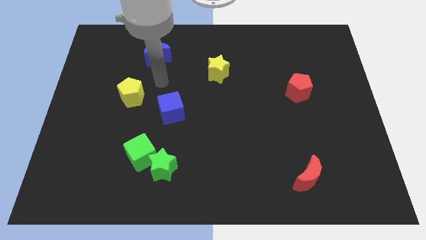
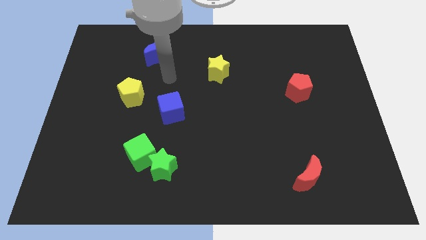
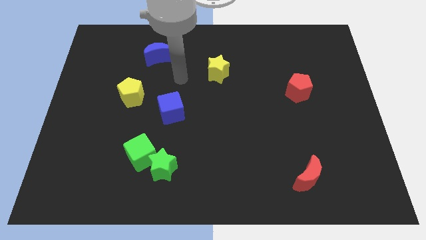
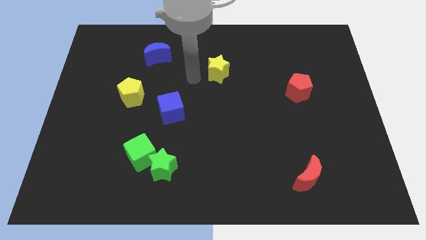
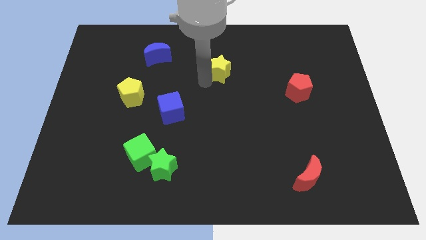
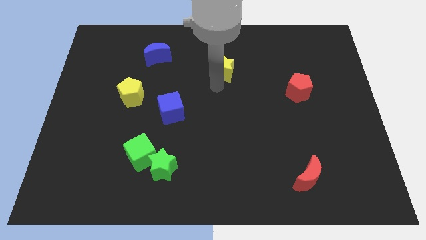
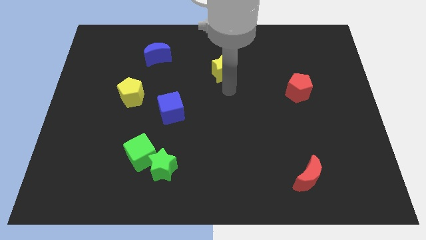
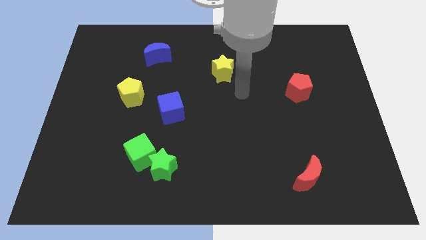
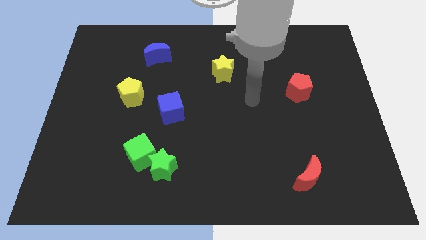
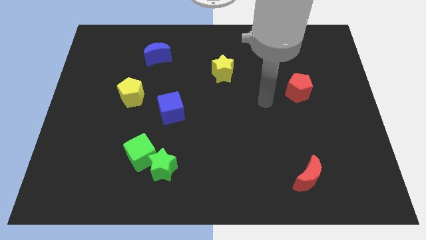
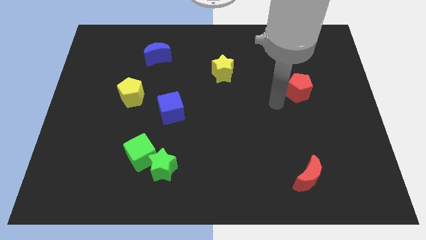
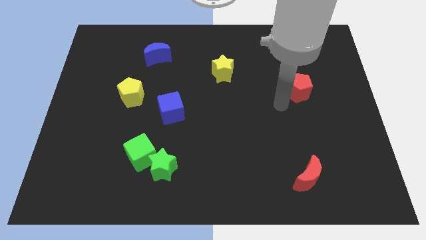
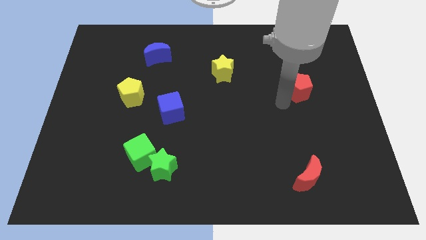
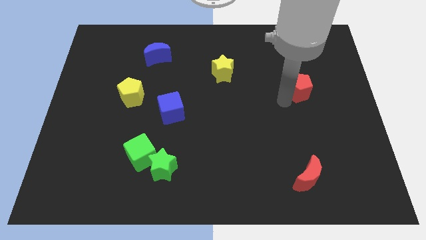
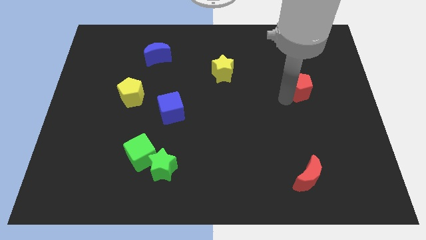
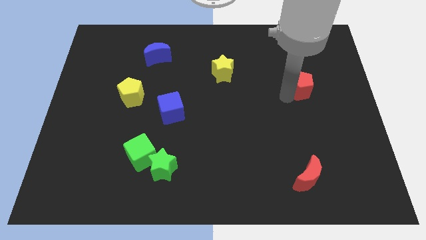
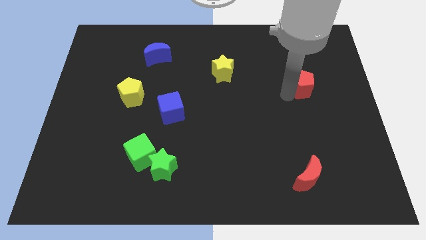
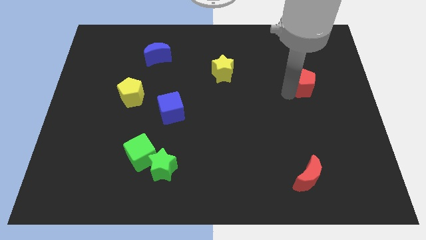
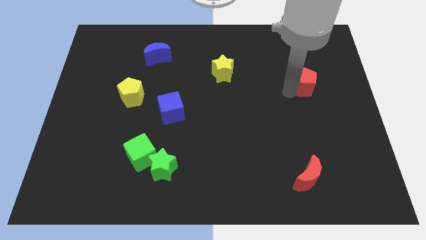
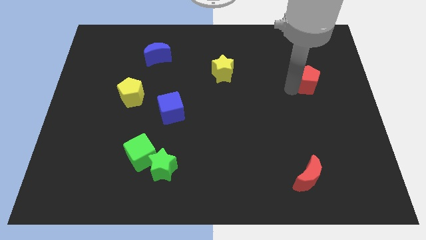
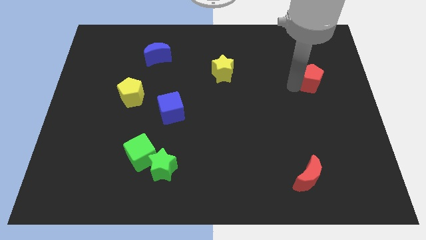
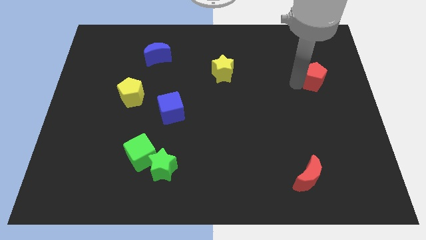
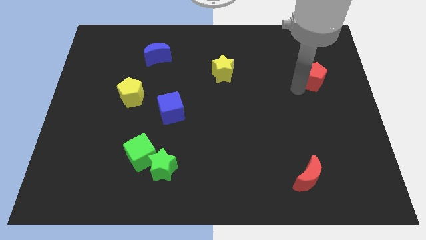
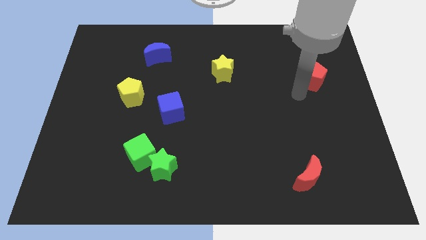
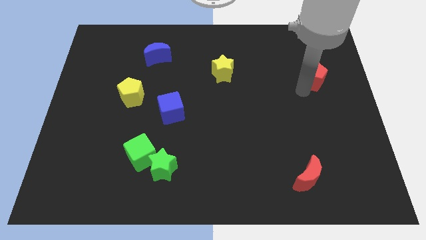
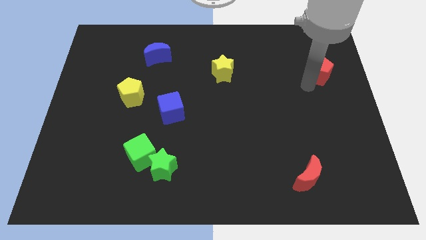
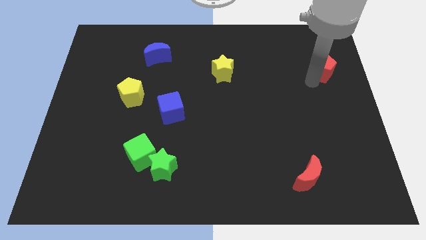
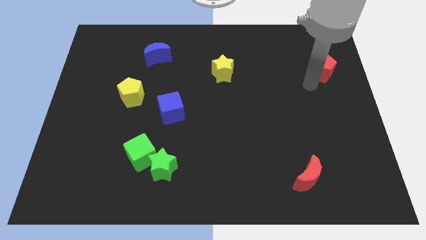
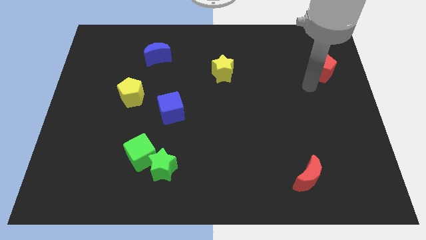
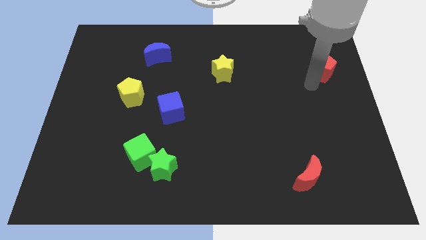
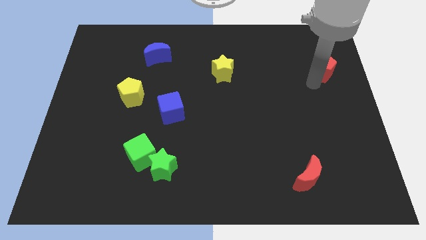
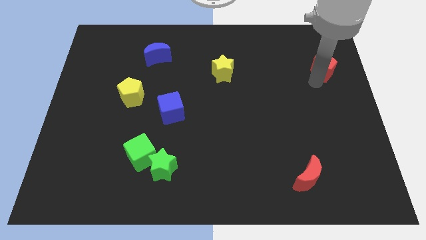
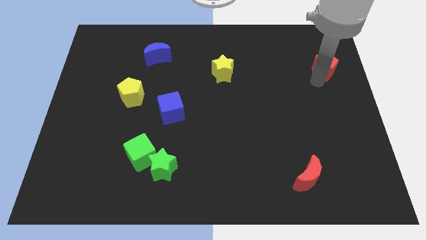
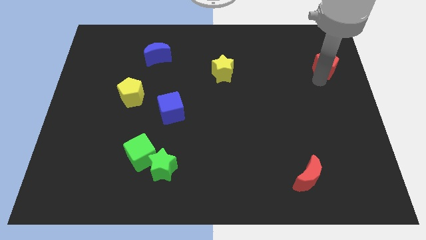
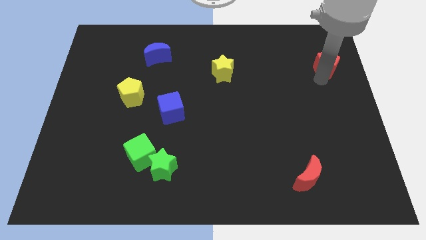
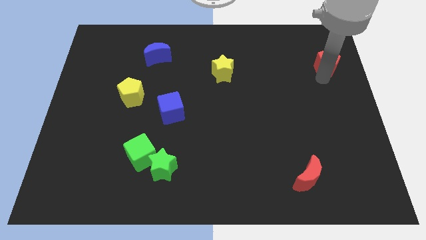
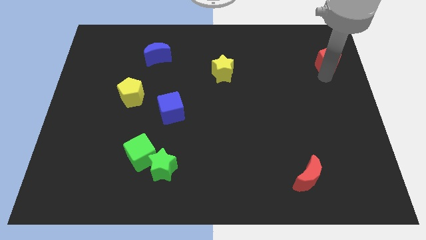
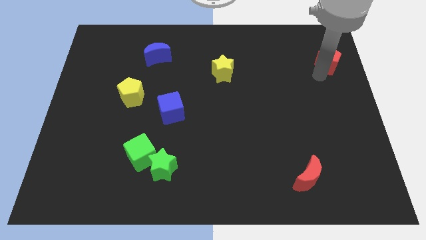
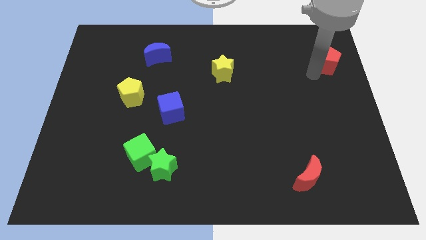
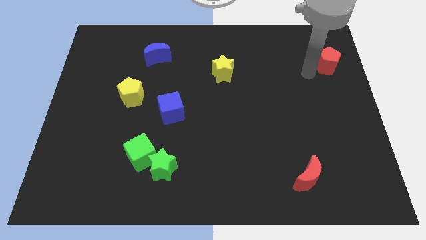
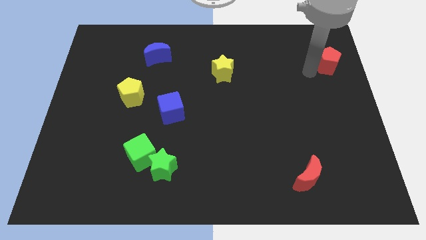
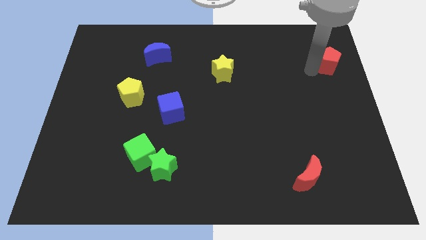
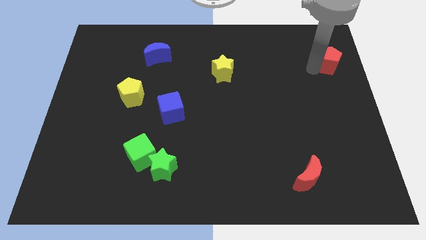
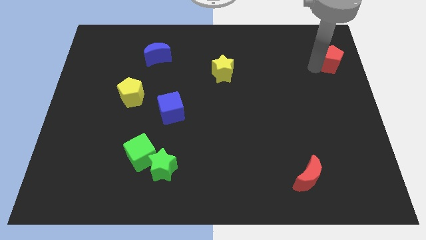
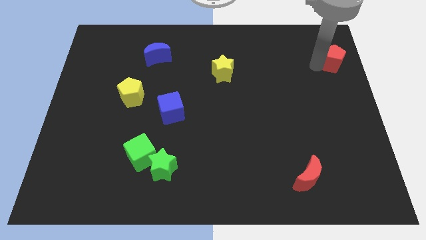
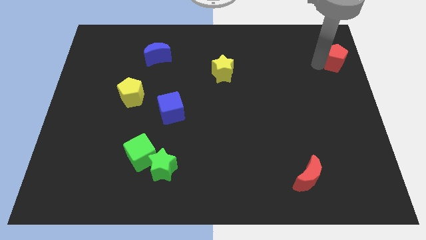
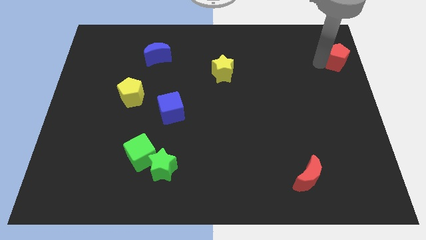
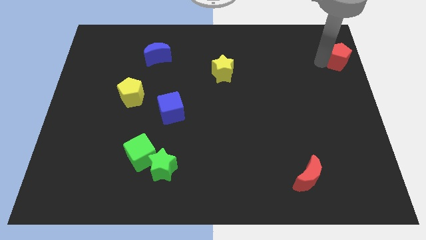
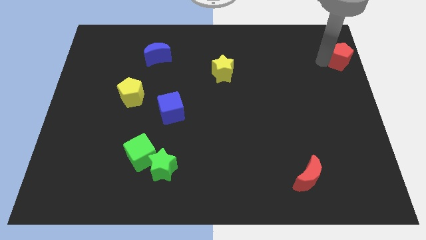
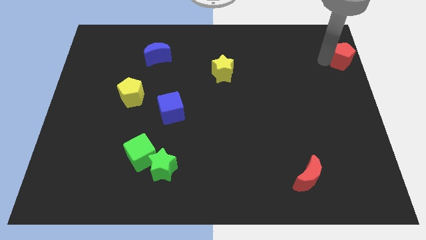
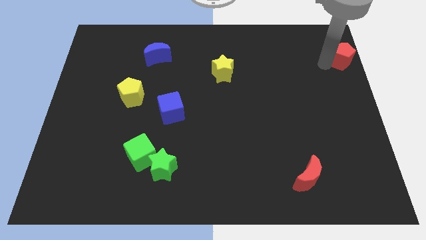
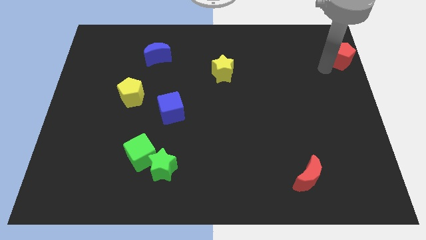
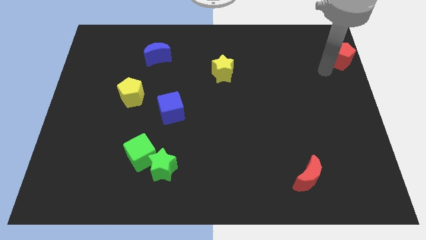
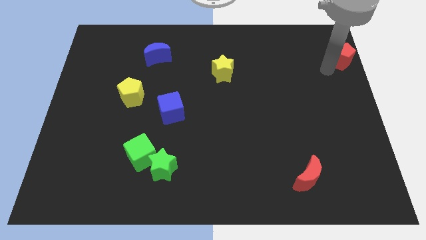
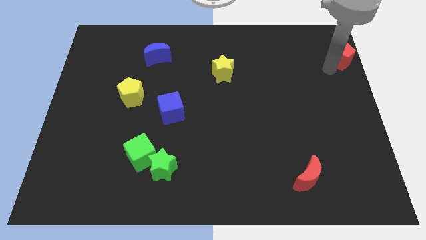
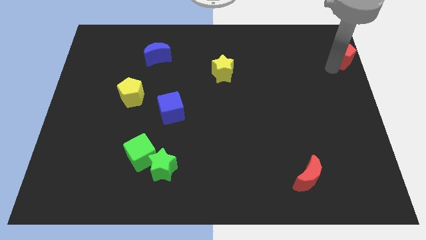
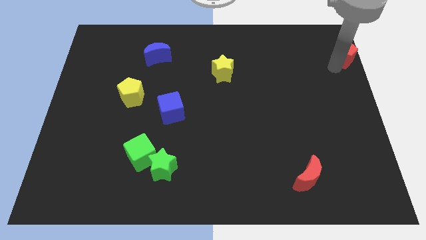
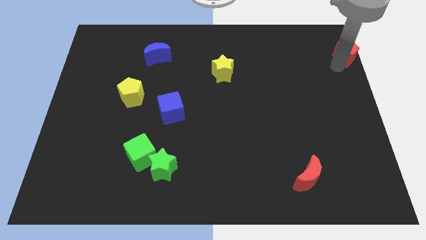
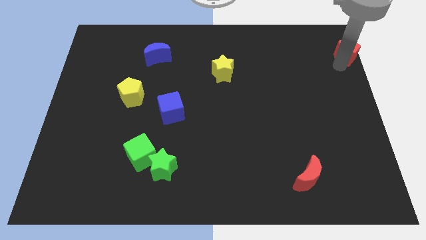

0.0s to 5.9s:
push the red pentagon to the top right of the board

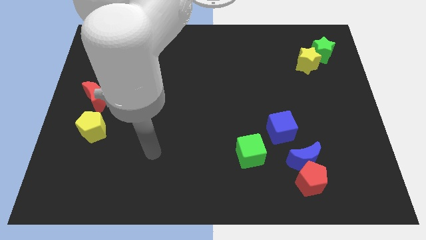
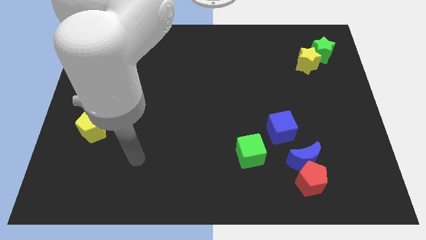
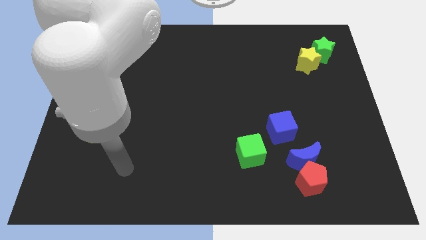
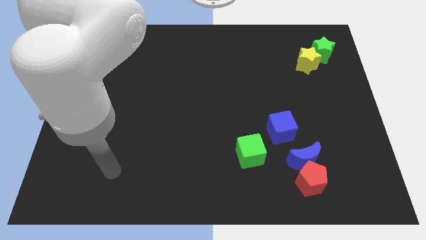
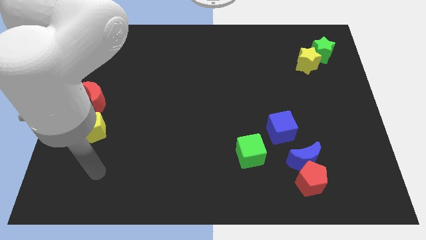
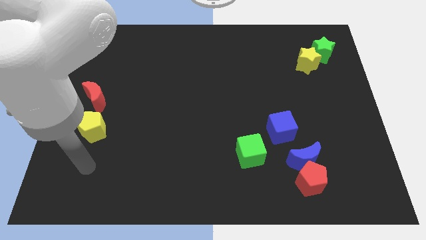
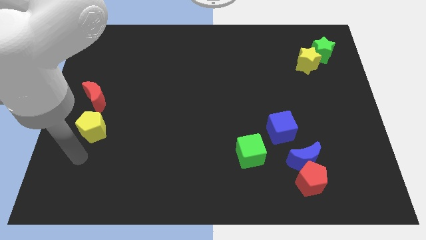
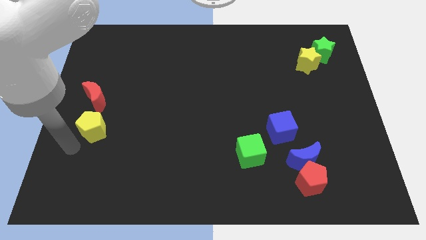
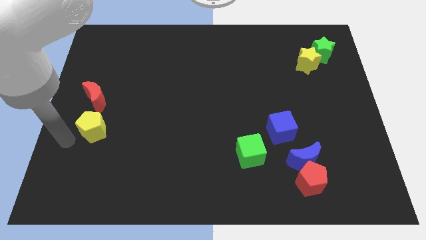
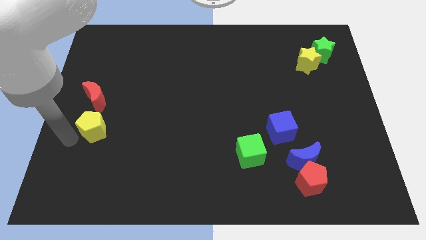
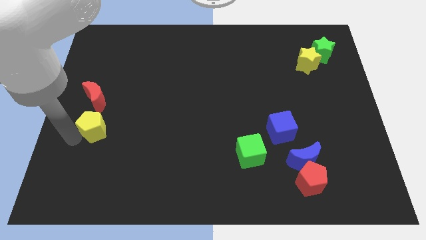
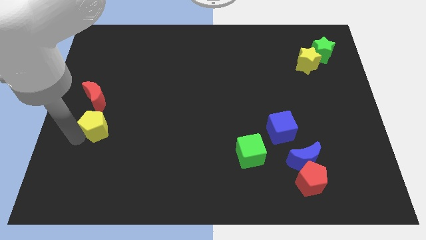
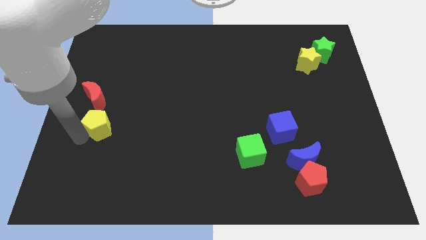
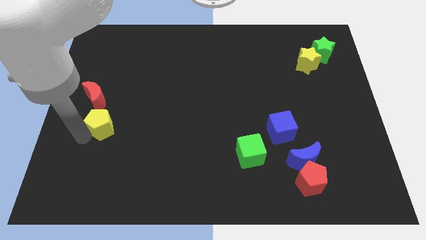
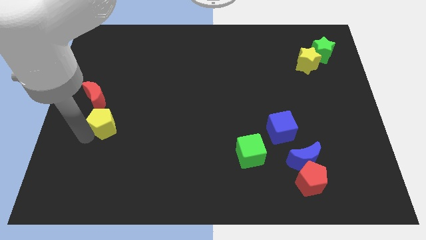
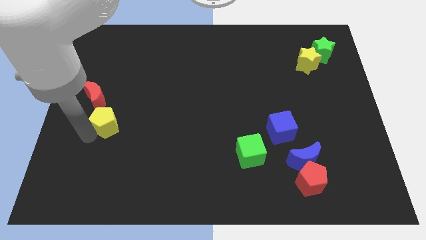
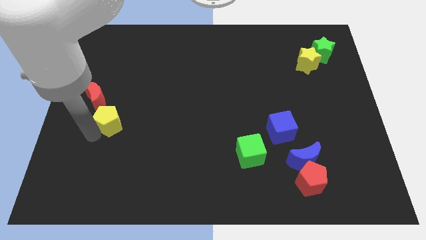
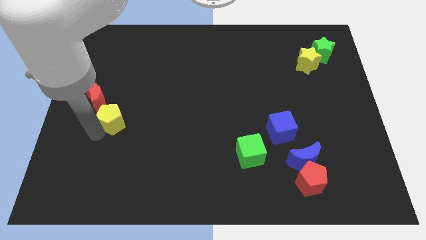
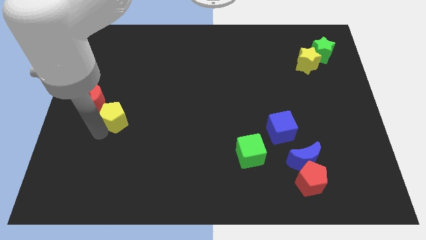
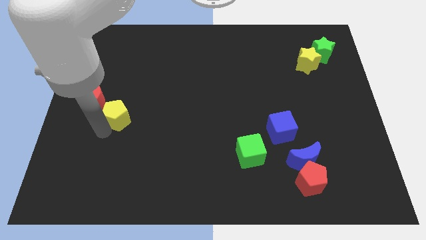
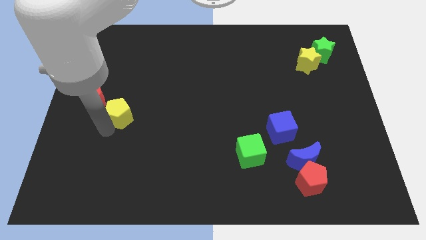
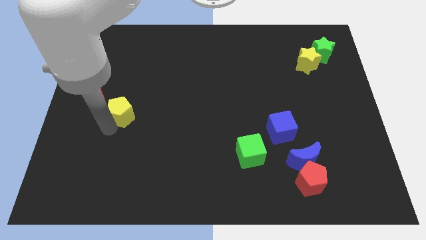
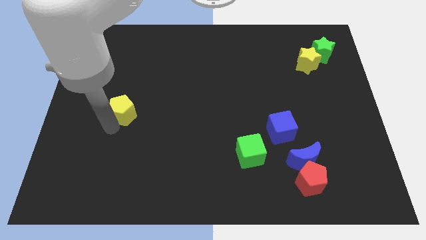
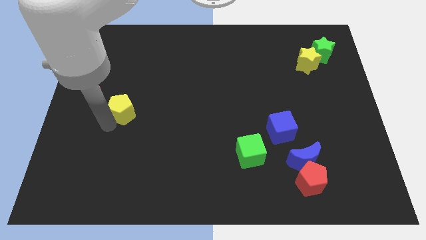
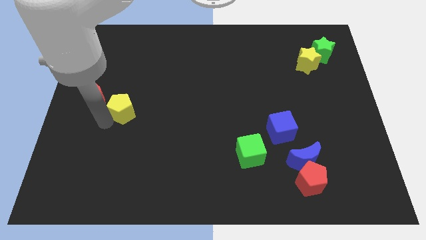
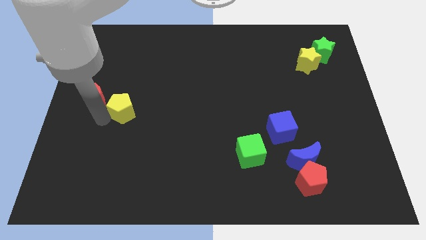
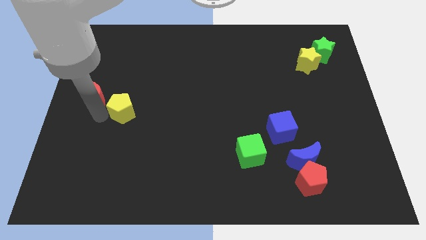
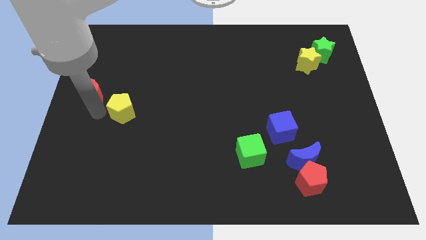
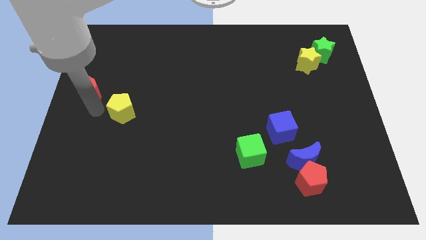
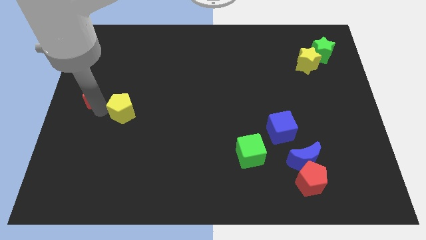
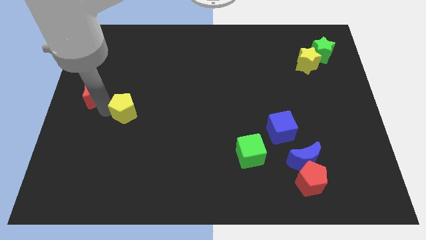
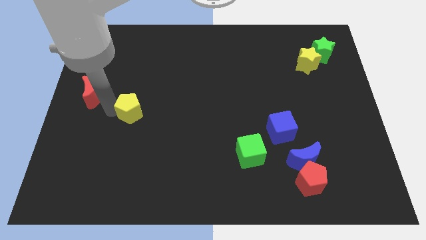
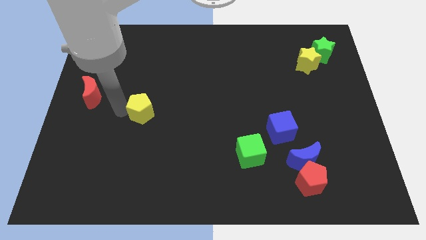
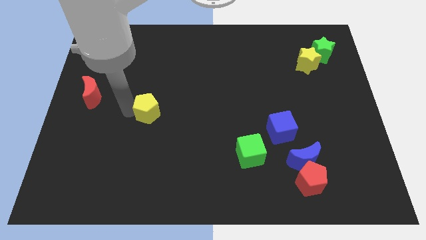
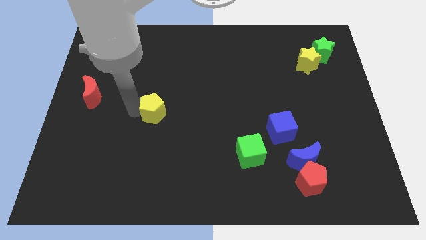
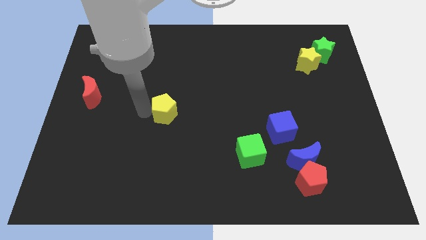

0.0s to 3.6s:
push the yellow pentagon to the center
